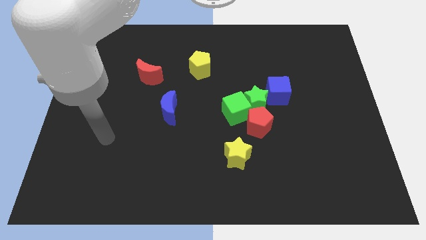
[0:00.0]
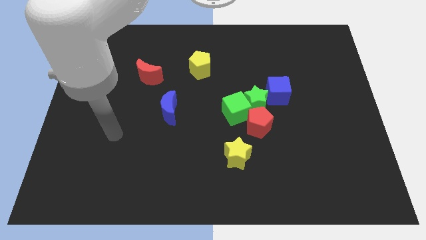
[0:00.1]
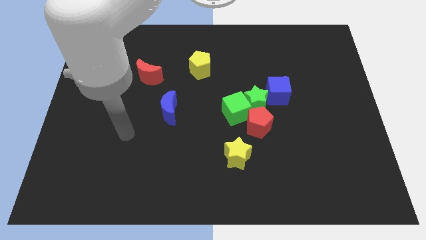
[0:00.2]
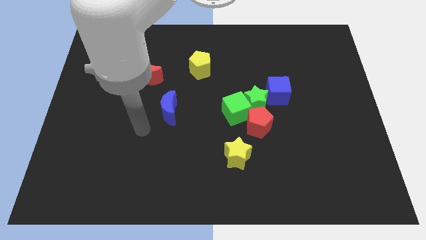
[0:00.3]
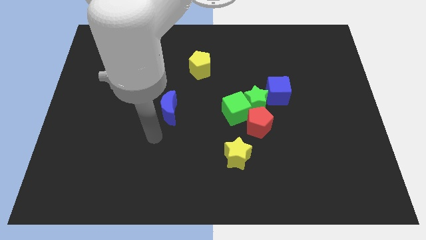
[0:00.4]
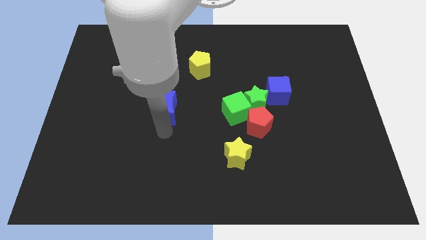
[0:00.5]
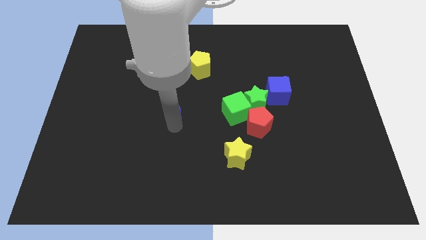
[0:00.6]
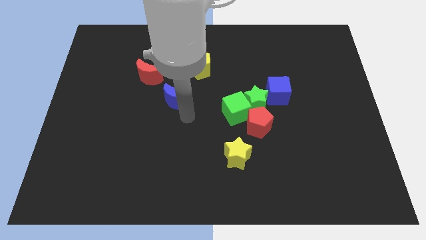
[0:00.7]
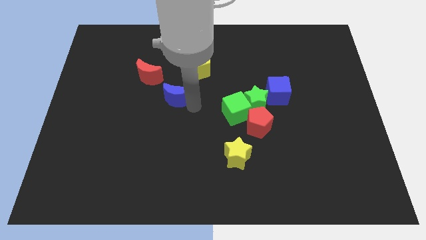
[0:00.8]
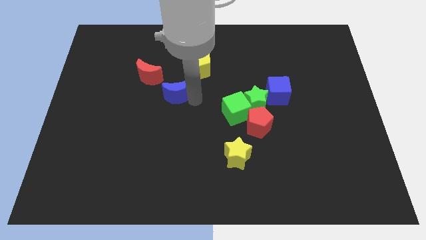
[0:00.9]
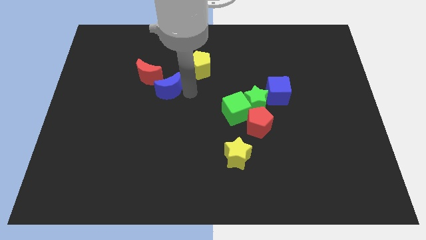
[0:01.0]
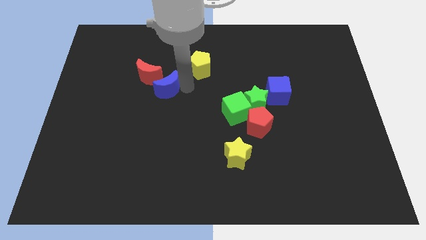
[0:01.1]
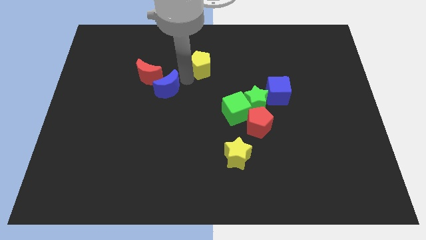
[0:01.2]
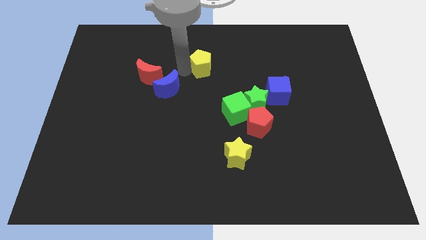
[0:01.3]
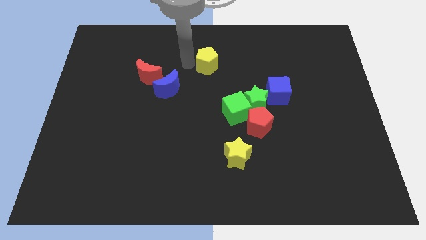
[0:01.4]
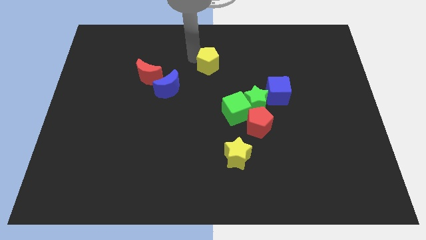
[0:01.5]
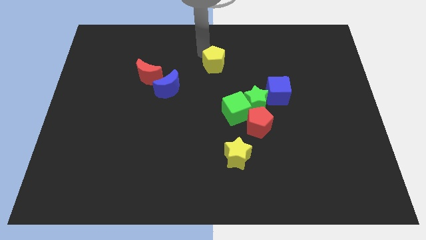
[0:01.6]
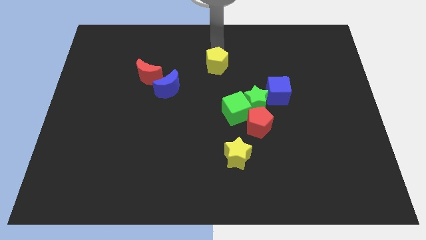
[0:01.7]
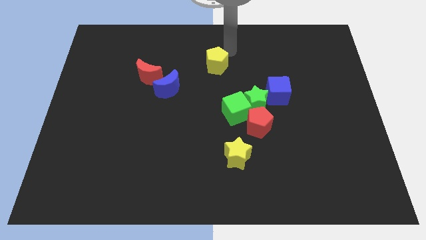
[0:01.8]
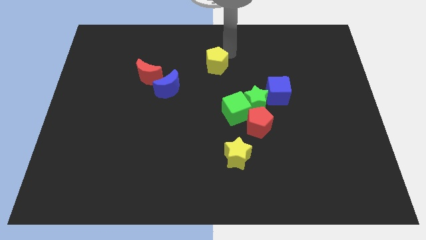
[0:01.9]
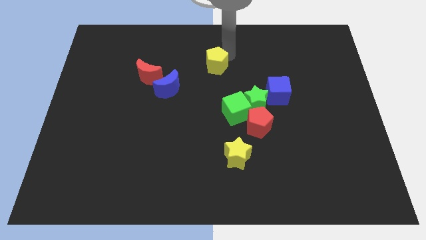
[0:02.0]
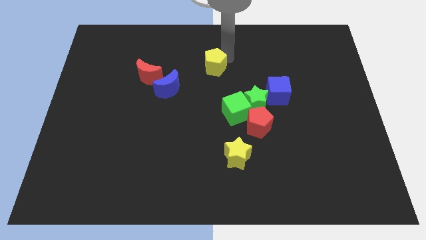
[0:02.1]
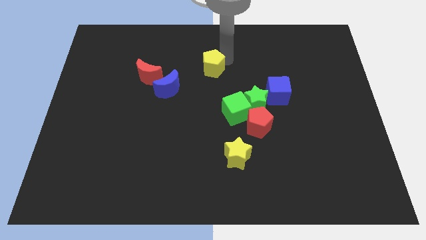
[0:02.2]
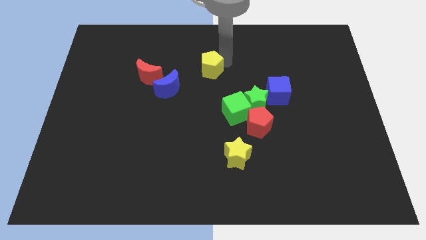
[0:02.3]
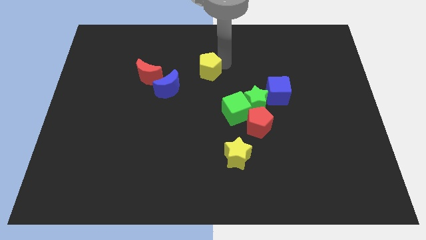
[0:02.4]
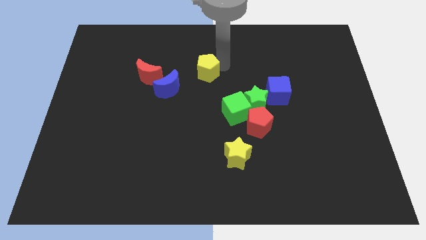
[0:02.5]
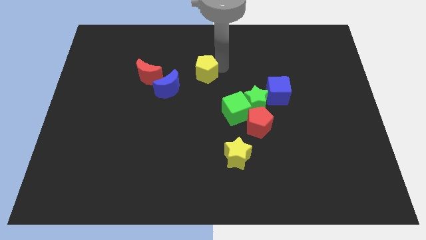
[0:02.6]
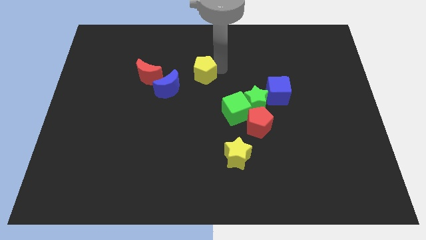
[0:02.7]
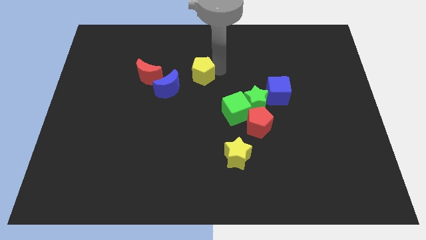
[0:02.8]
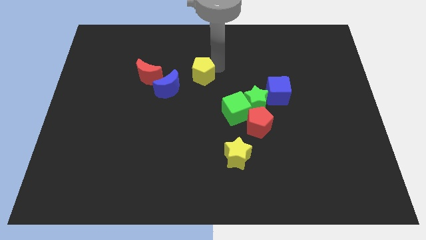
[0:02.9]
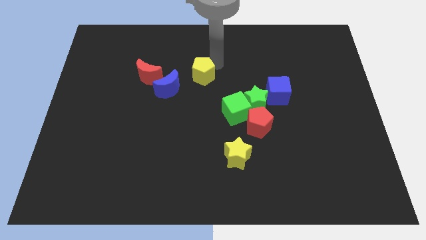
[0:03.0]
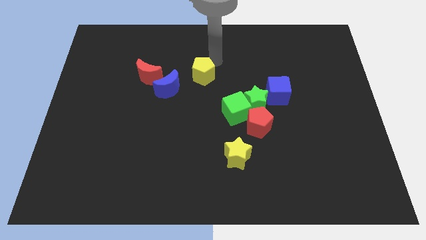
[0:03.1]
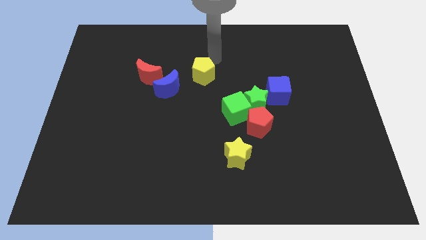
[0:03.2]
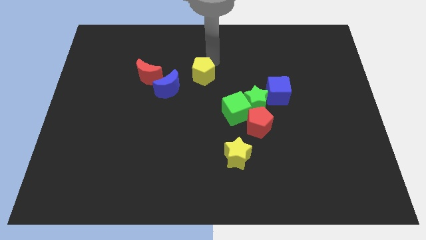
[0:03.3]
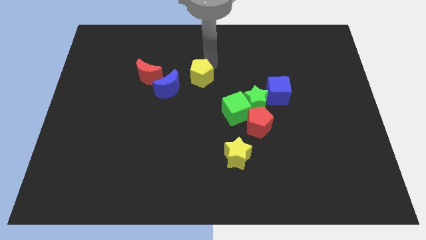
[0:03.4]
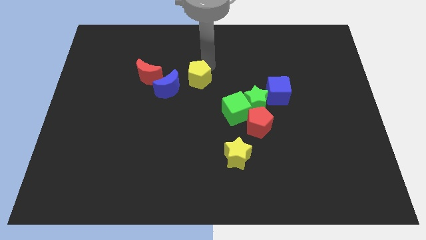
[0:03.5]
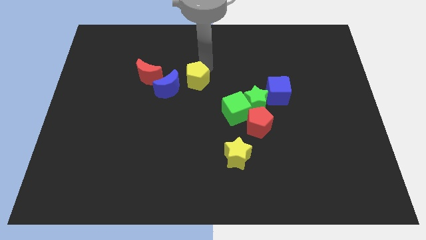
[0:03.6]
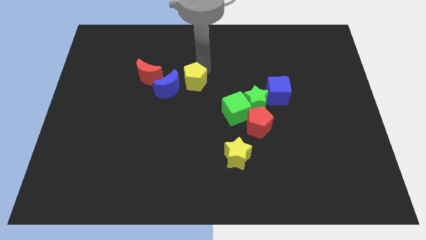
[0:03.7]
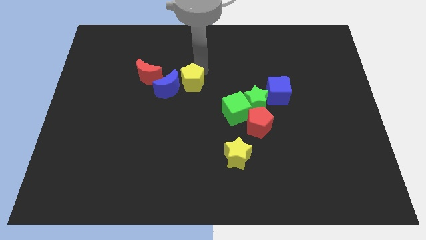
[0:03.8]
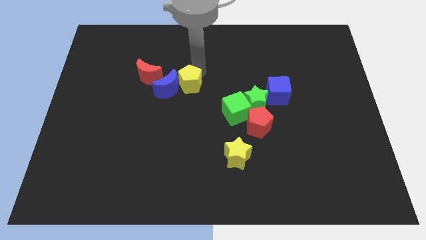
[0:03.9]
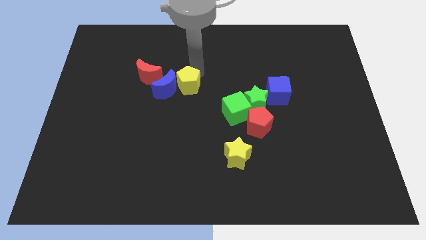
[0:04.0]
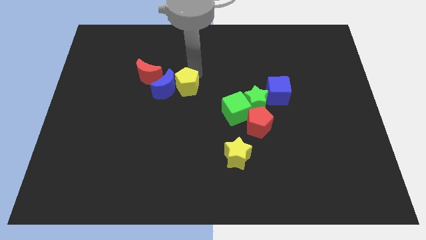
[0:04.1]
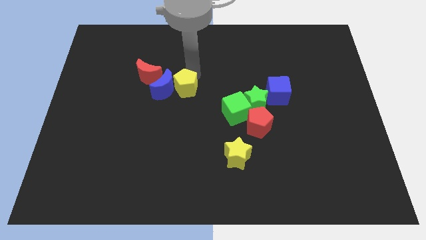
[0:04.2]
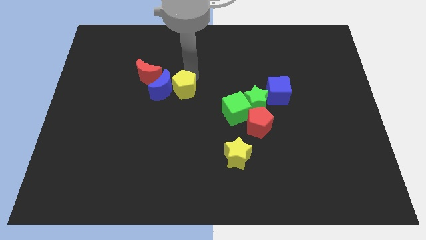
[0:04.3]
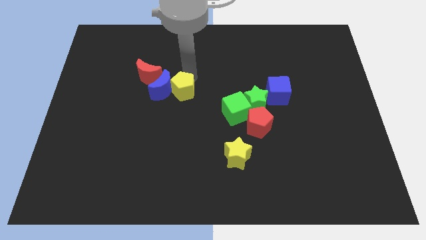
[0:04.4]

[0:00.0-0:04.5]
move the yellow pentagon a bit down

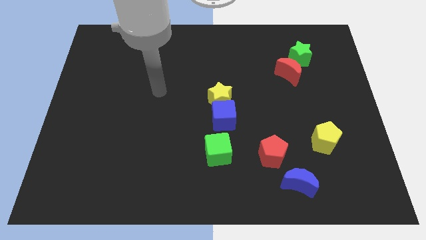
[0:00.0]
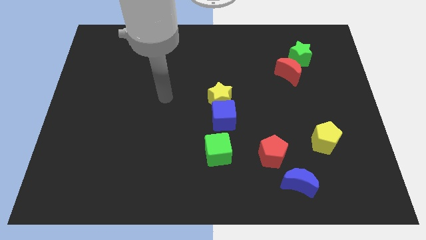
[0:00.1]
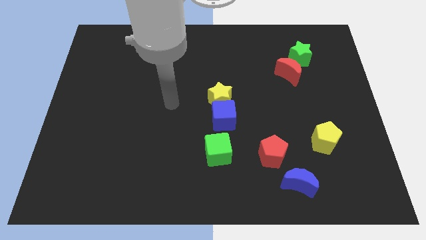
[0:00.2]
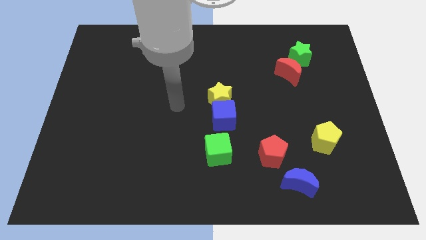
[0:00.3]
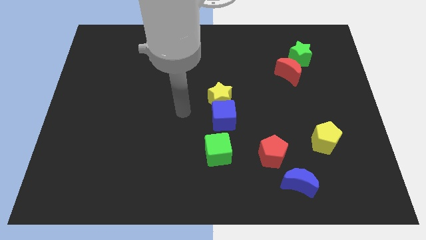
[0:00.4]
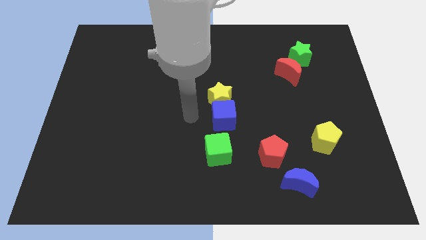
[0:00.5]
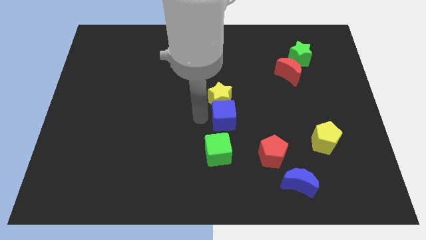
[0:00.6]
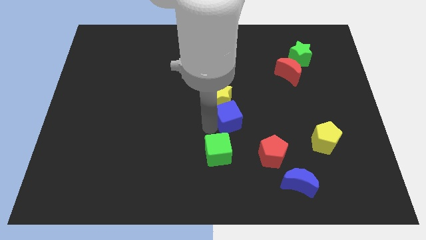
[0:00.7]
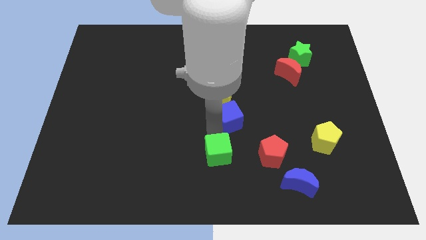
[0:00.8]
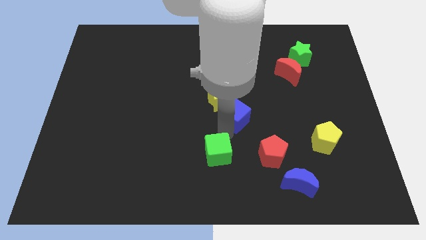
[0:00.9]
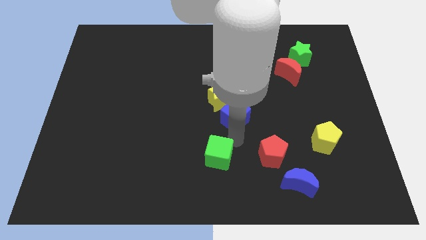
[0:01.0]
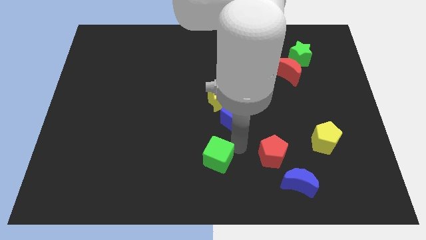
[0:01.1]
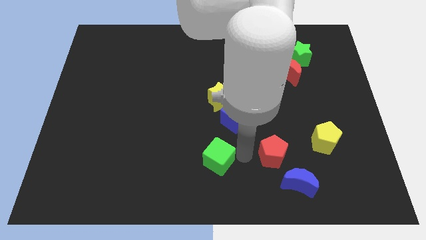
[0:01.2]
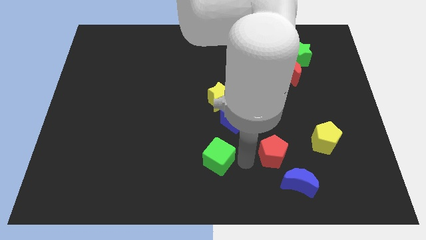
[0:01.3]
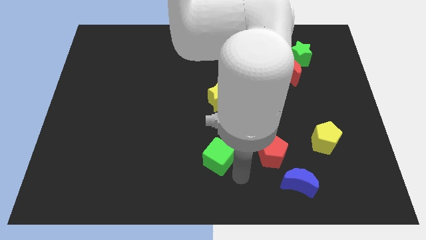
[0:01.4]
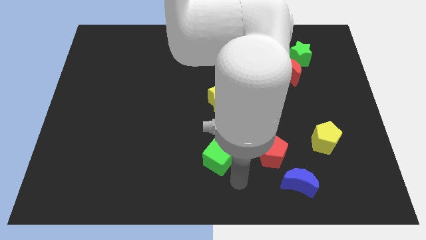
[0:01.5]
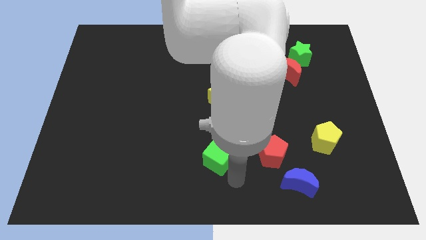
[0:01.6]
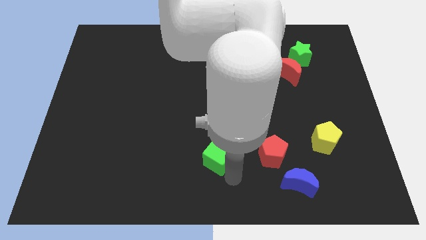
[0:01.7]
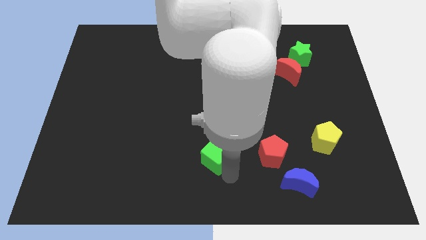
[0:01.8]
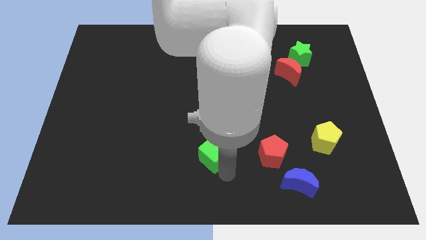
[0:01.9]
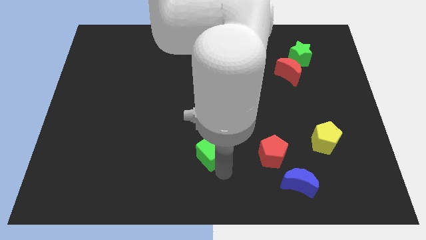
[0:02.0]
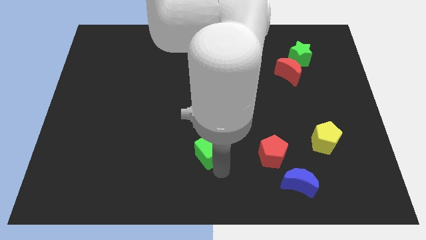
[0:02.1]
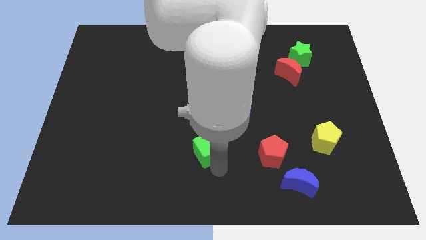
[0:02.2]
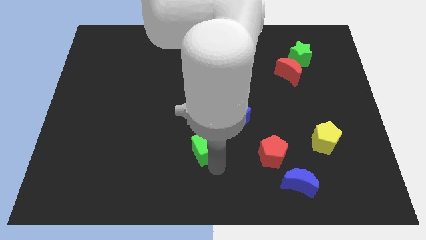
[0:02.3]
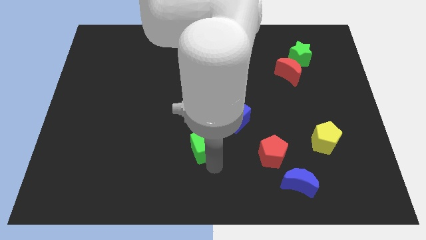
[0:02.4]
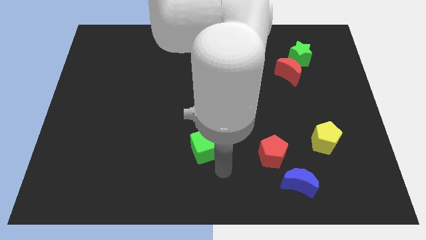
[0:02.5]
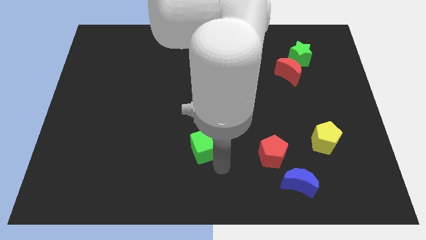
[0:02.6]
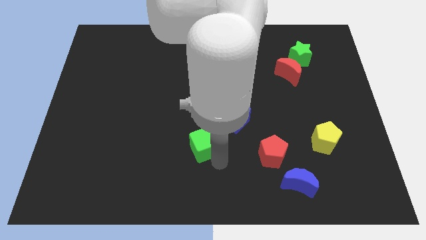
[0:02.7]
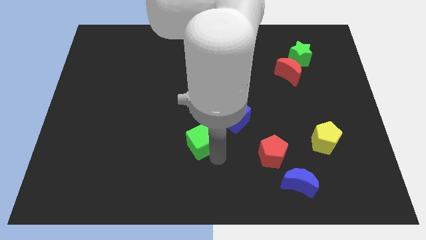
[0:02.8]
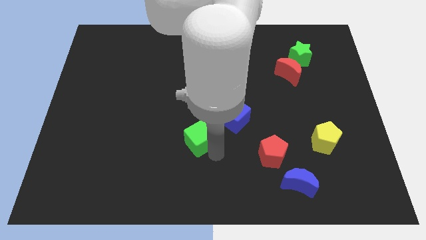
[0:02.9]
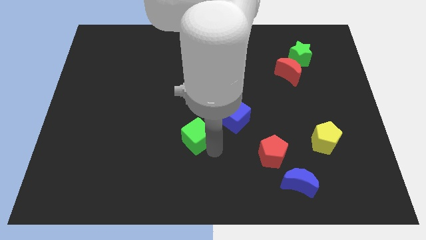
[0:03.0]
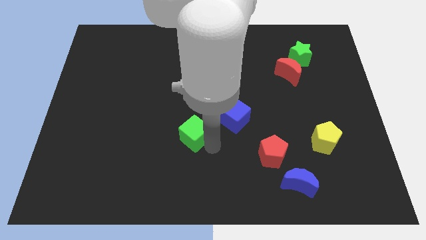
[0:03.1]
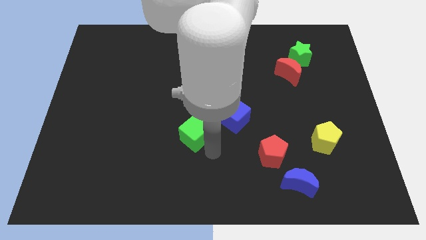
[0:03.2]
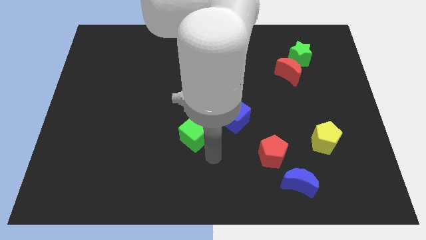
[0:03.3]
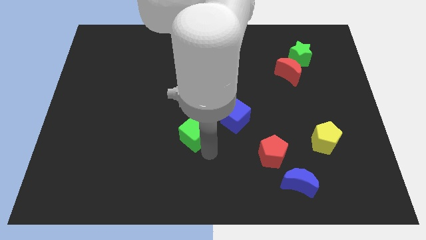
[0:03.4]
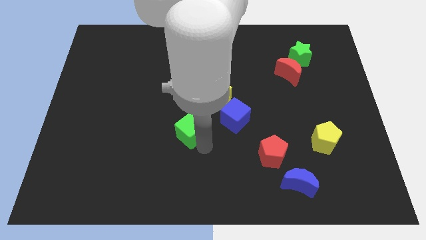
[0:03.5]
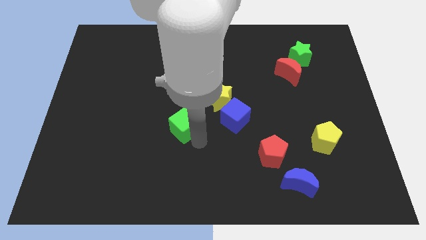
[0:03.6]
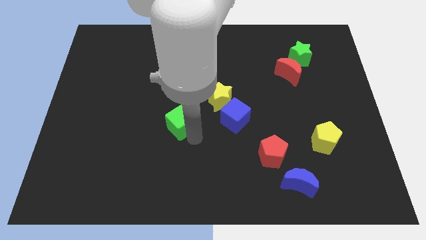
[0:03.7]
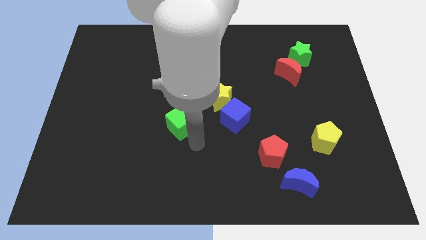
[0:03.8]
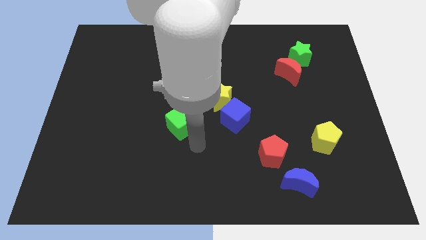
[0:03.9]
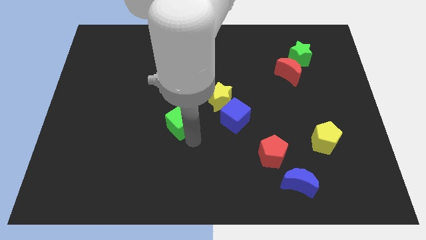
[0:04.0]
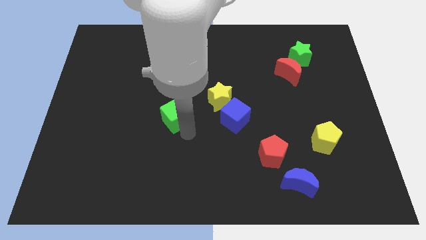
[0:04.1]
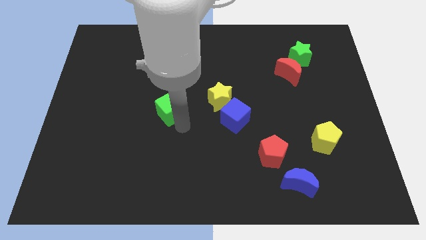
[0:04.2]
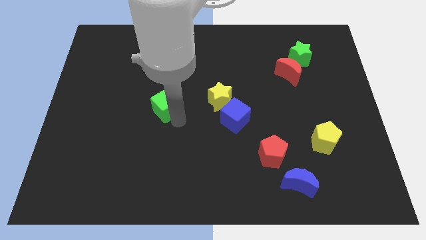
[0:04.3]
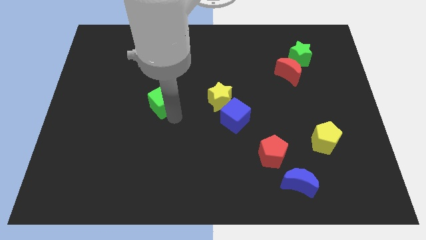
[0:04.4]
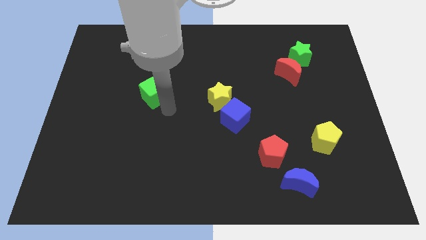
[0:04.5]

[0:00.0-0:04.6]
move the green cube up and to the left diagonally
